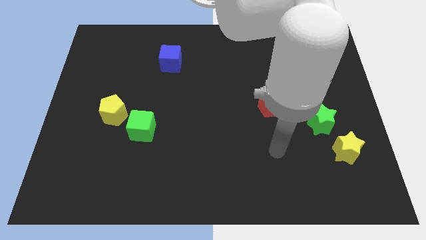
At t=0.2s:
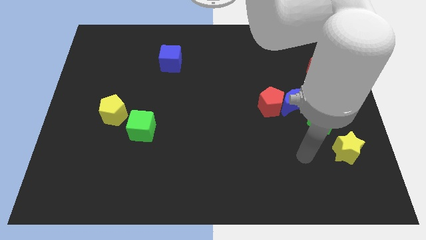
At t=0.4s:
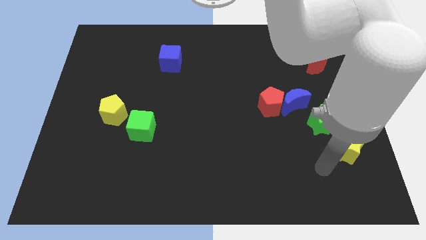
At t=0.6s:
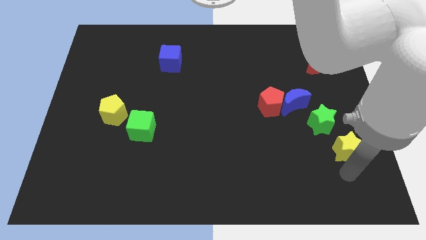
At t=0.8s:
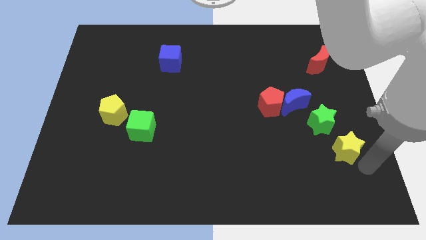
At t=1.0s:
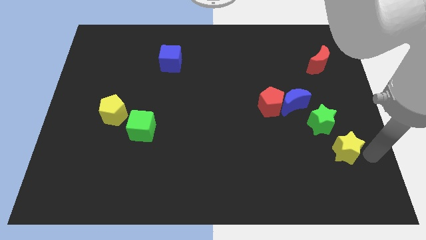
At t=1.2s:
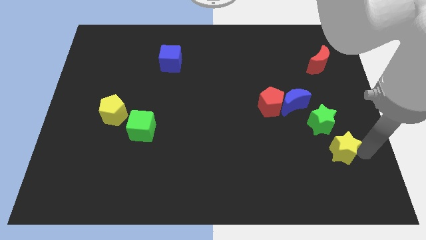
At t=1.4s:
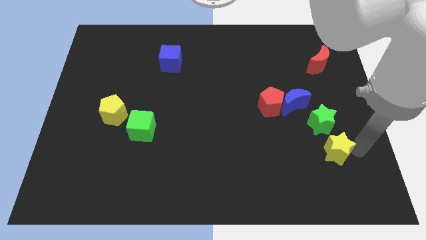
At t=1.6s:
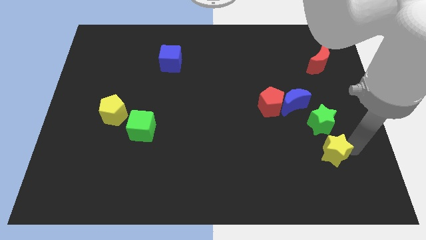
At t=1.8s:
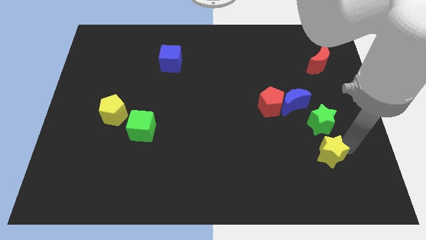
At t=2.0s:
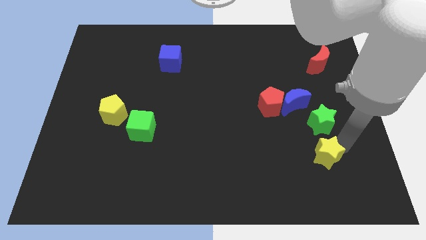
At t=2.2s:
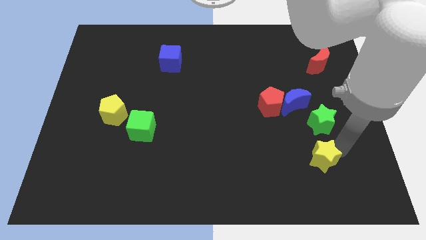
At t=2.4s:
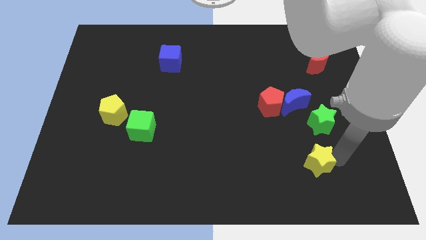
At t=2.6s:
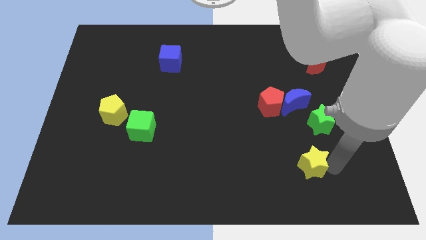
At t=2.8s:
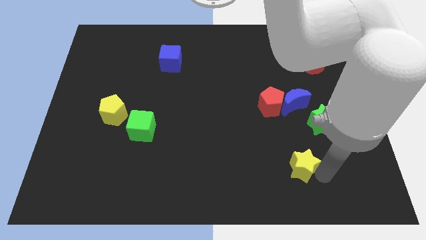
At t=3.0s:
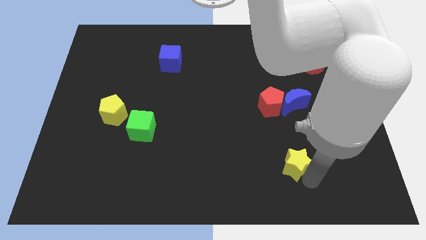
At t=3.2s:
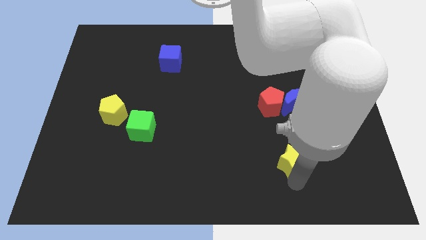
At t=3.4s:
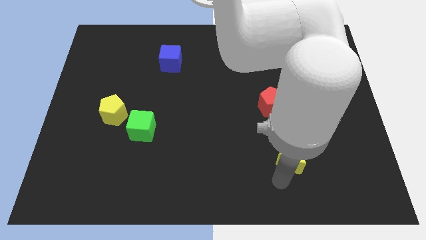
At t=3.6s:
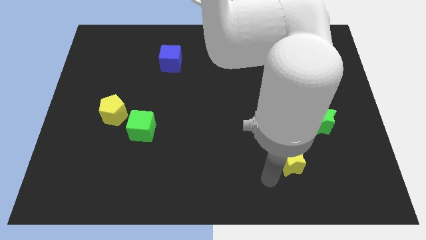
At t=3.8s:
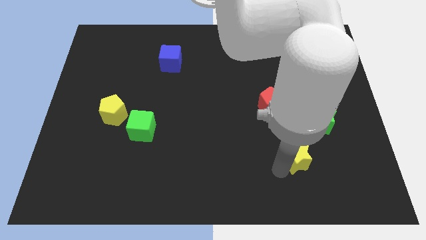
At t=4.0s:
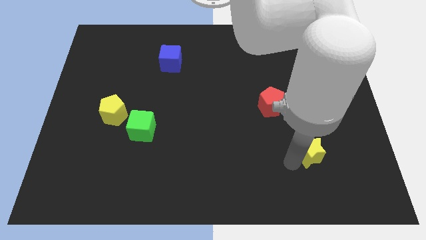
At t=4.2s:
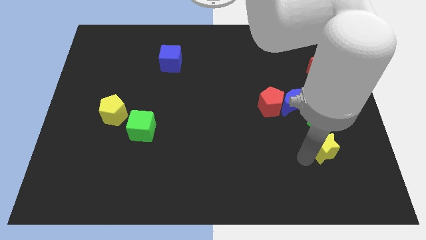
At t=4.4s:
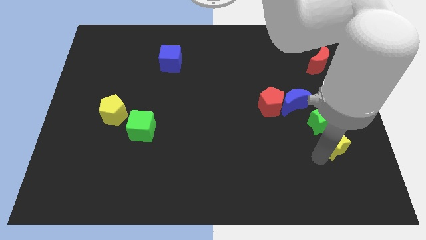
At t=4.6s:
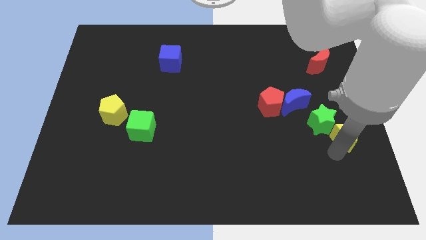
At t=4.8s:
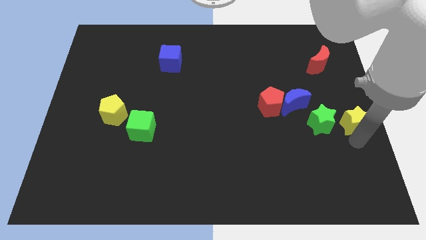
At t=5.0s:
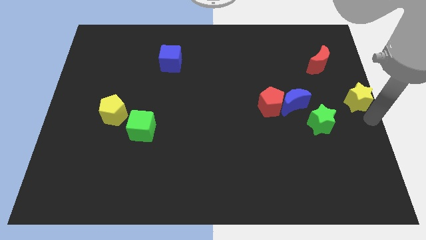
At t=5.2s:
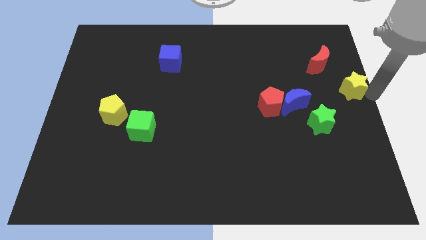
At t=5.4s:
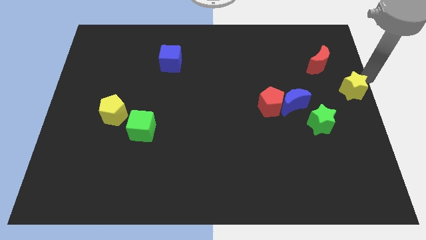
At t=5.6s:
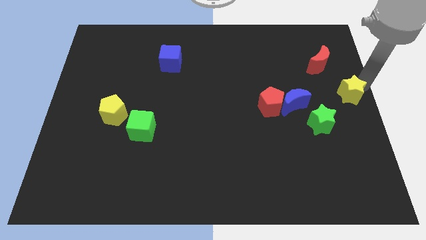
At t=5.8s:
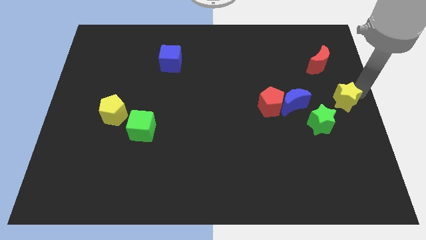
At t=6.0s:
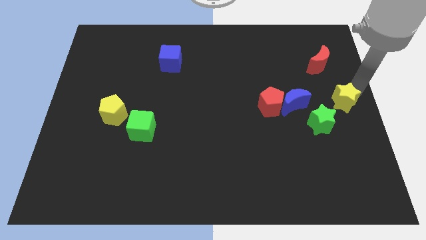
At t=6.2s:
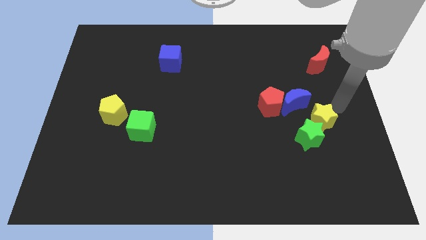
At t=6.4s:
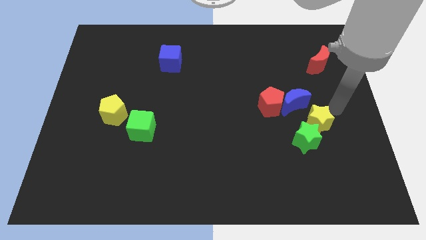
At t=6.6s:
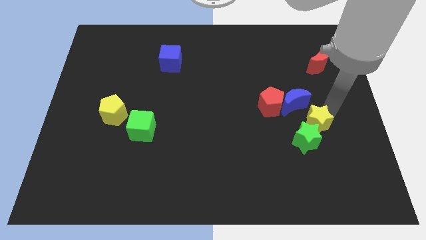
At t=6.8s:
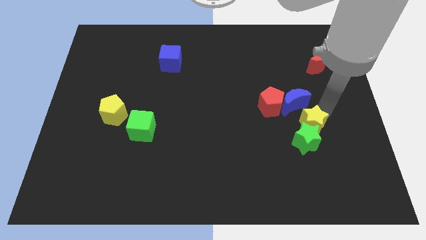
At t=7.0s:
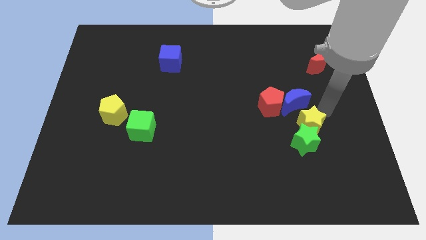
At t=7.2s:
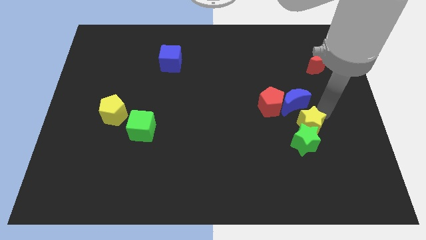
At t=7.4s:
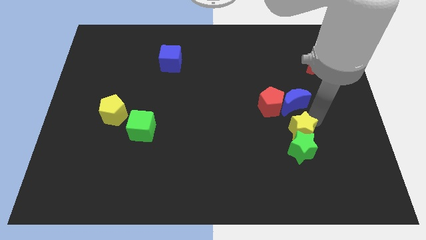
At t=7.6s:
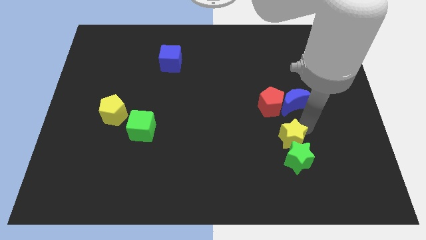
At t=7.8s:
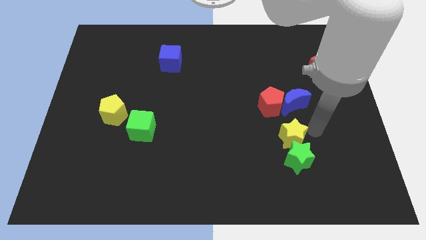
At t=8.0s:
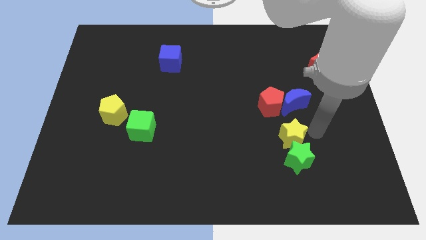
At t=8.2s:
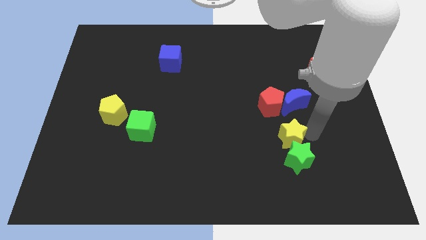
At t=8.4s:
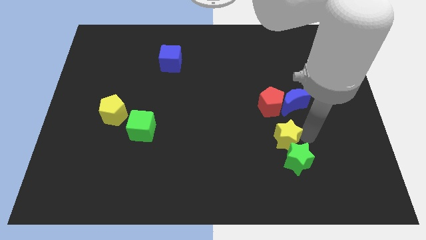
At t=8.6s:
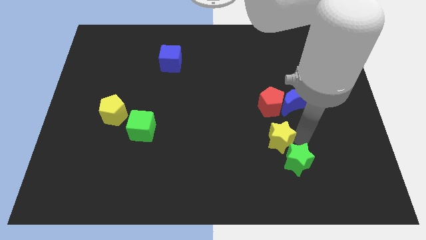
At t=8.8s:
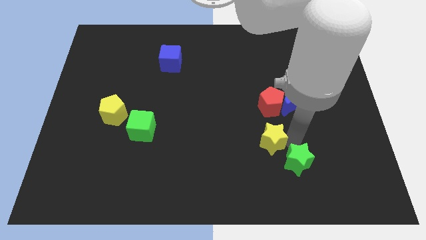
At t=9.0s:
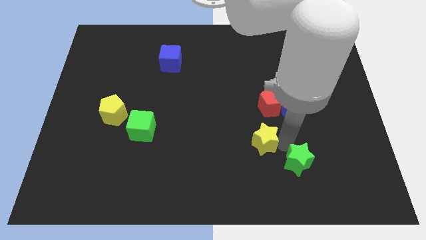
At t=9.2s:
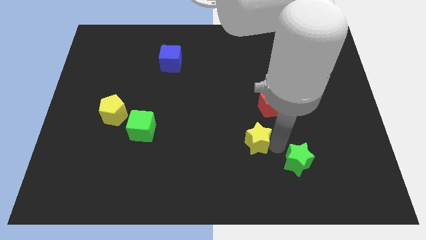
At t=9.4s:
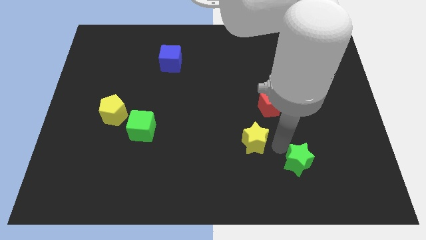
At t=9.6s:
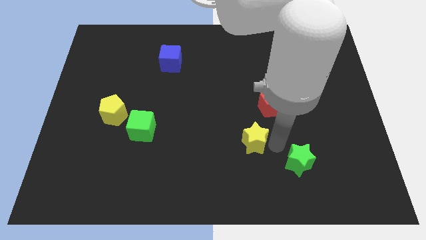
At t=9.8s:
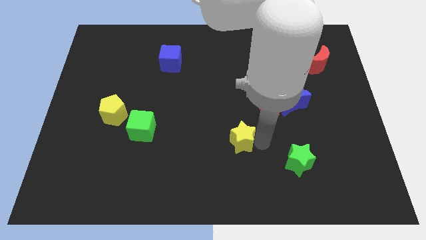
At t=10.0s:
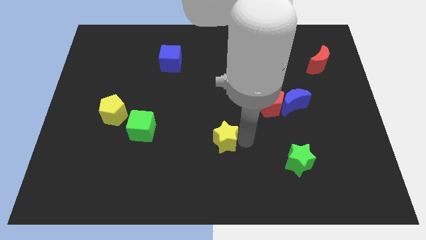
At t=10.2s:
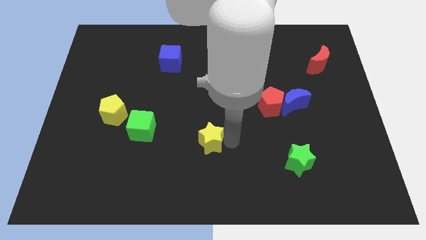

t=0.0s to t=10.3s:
put the yellow star right of the green cube

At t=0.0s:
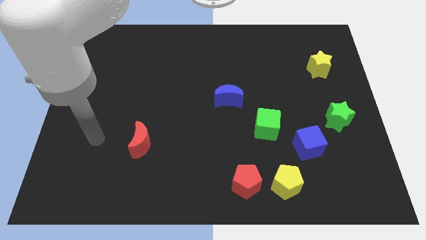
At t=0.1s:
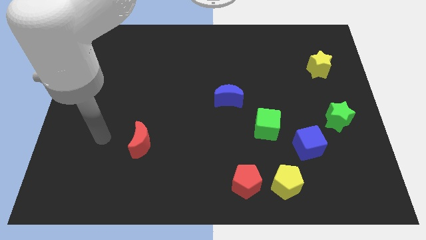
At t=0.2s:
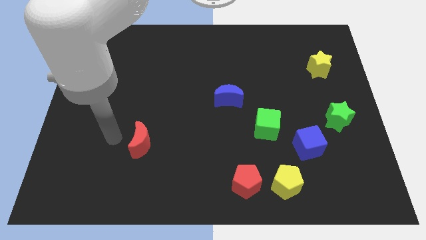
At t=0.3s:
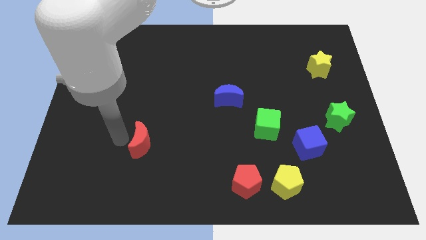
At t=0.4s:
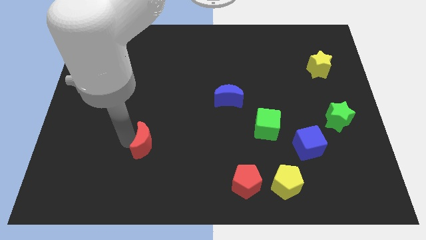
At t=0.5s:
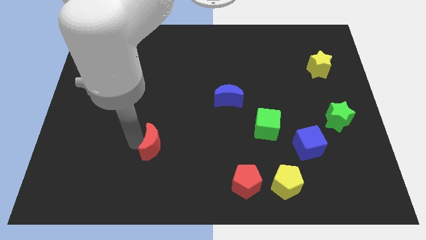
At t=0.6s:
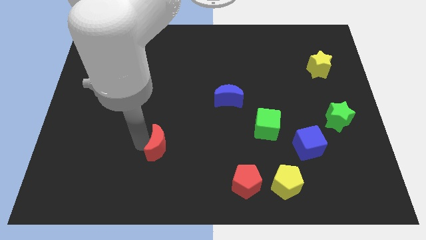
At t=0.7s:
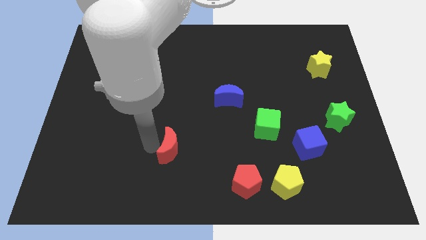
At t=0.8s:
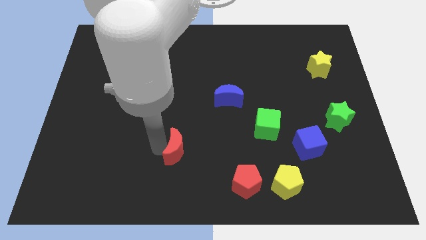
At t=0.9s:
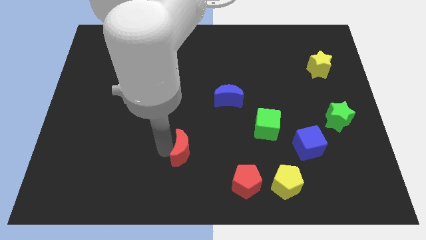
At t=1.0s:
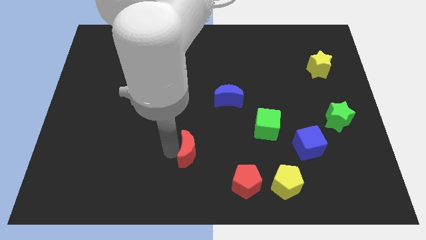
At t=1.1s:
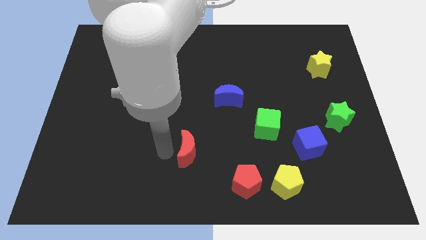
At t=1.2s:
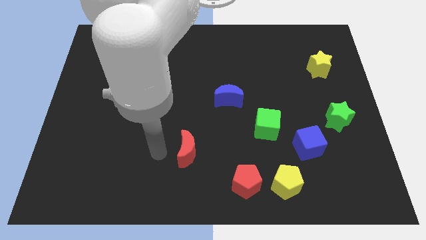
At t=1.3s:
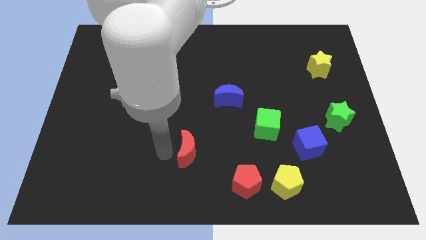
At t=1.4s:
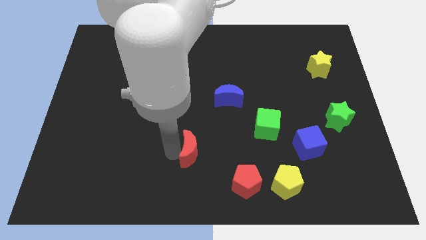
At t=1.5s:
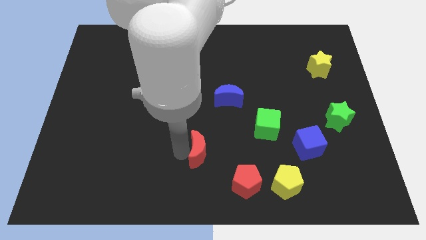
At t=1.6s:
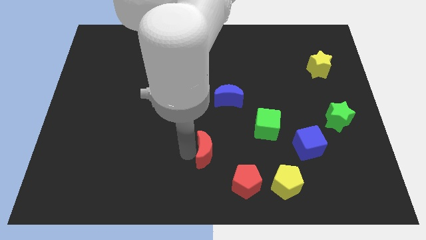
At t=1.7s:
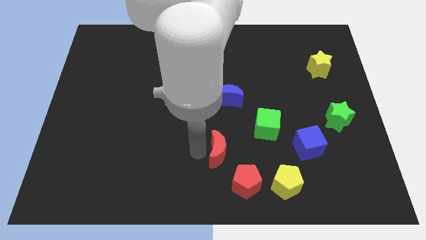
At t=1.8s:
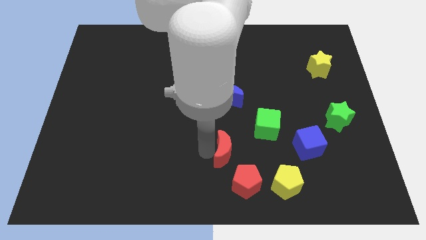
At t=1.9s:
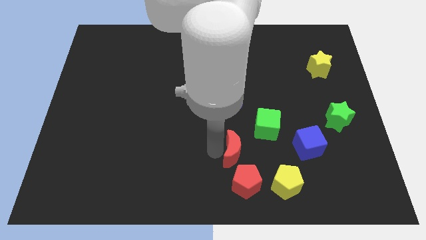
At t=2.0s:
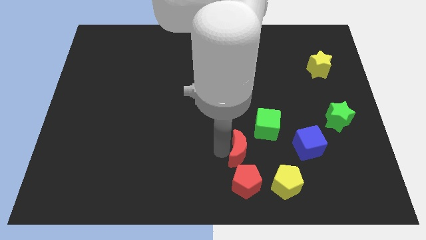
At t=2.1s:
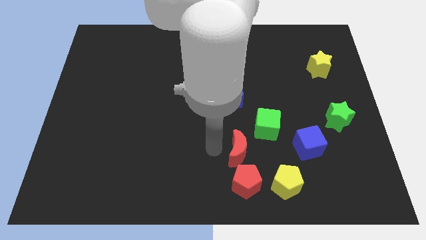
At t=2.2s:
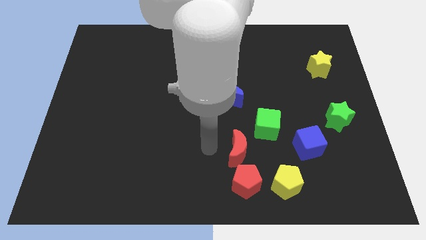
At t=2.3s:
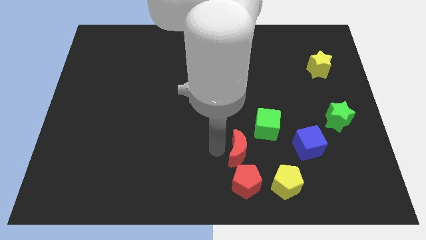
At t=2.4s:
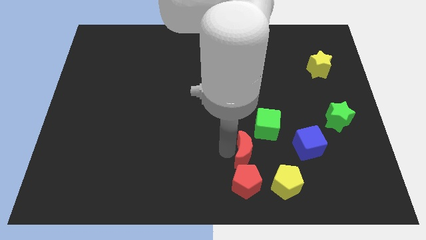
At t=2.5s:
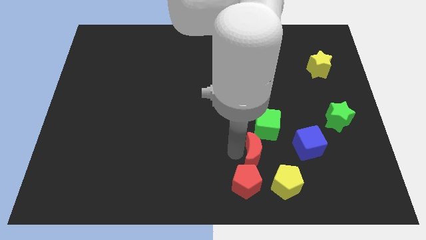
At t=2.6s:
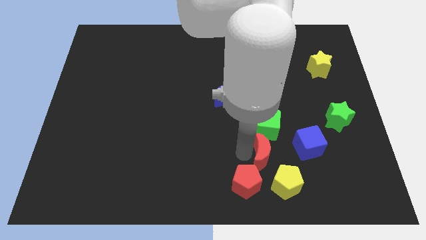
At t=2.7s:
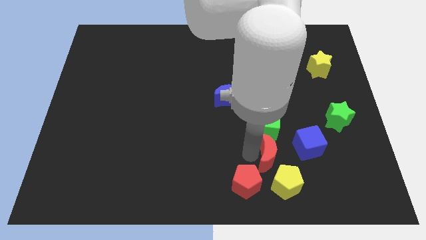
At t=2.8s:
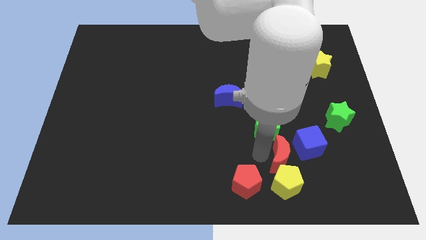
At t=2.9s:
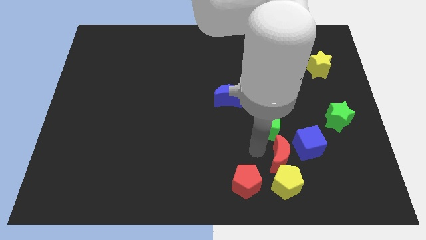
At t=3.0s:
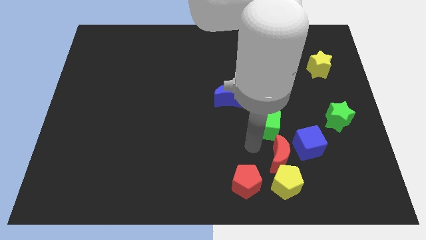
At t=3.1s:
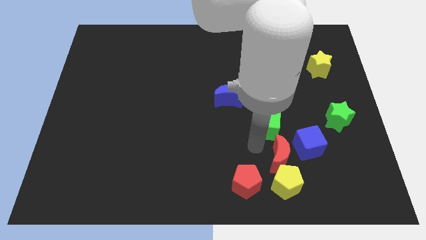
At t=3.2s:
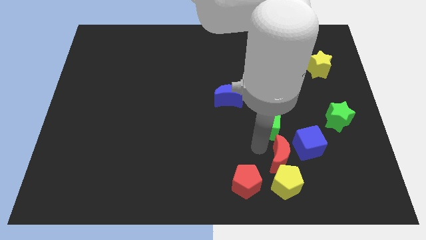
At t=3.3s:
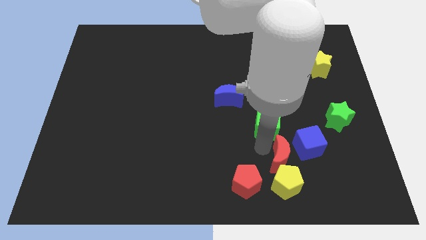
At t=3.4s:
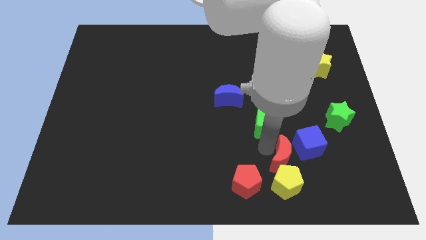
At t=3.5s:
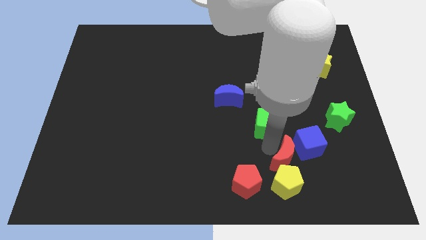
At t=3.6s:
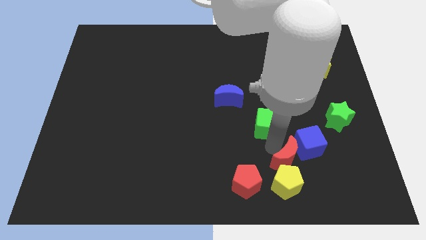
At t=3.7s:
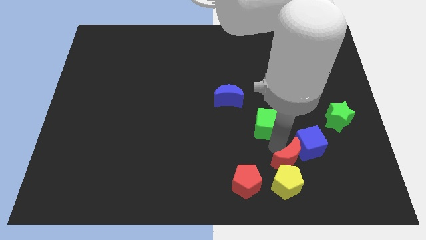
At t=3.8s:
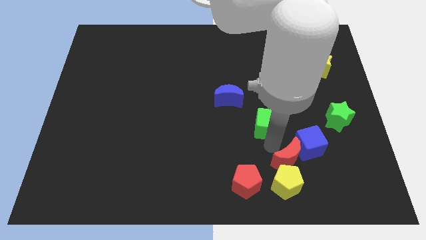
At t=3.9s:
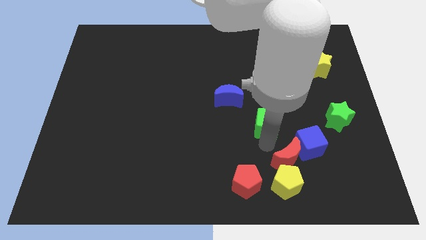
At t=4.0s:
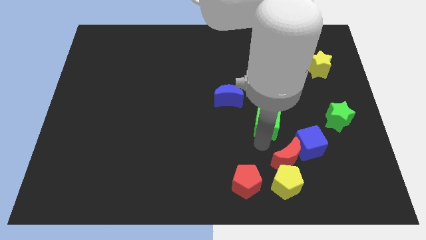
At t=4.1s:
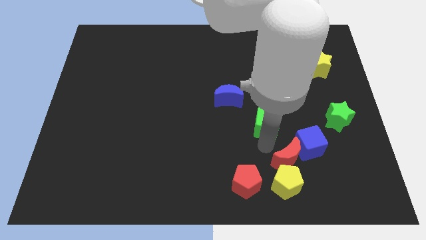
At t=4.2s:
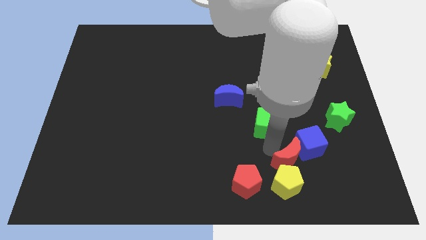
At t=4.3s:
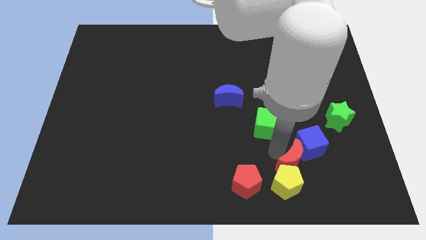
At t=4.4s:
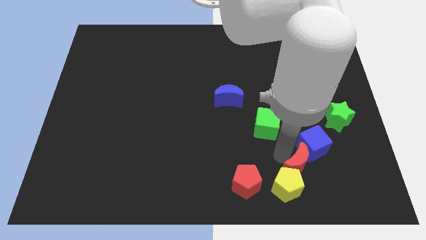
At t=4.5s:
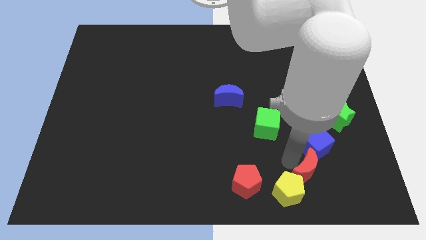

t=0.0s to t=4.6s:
move the red moon to the right of the yellow pentagon
